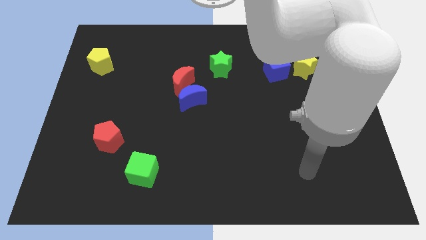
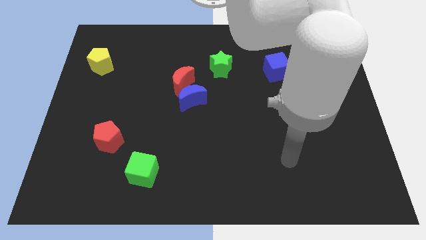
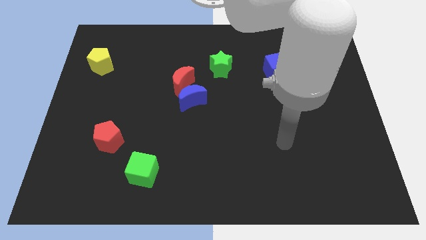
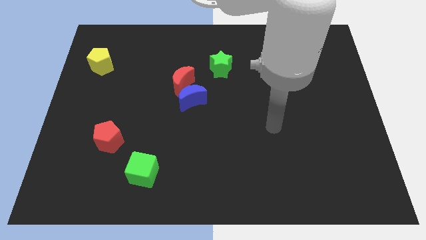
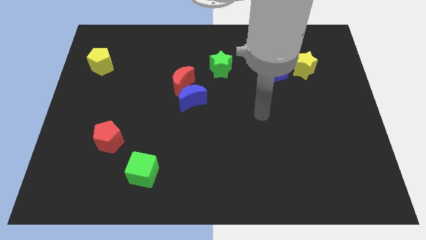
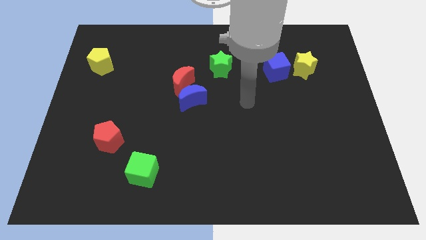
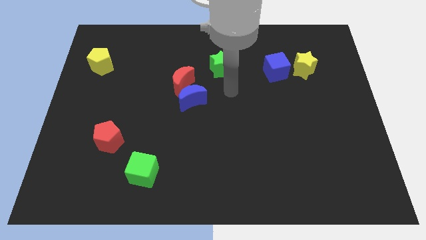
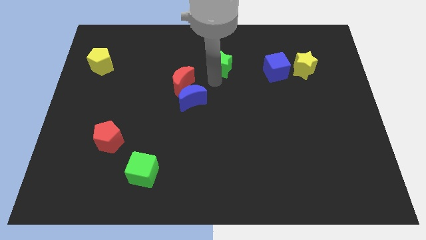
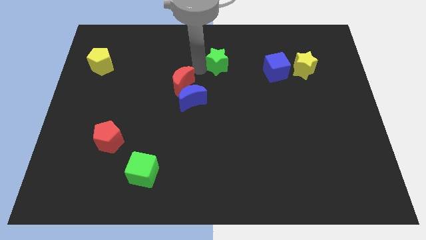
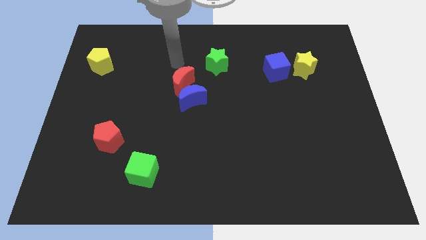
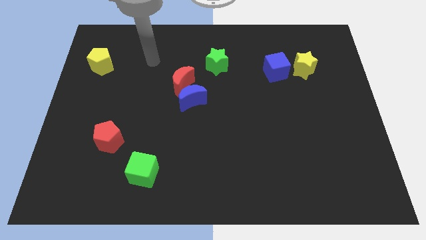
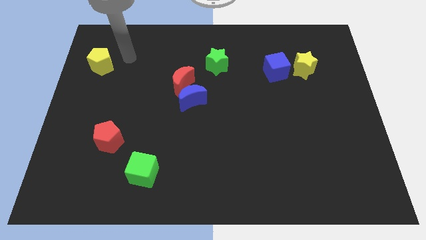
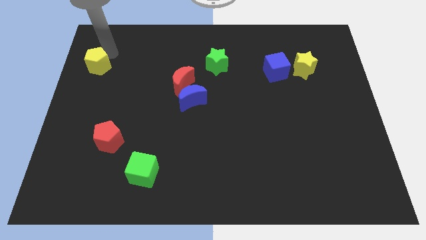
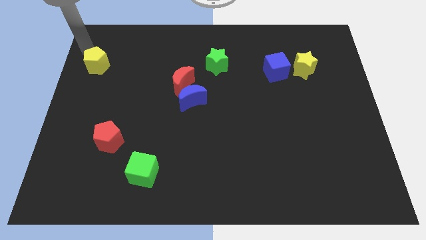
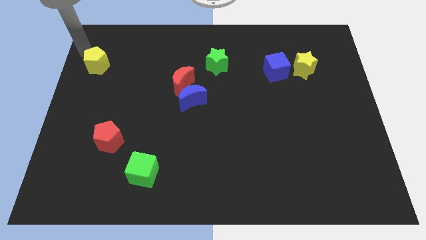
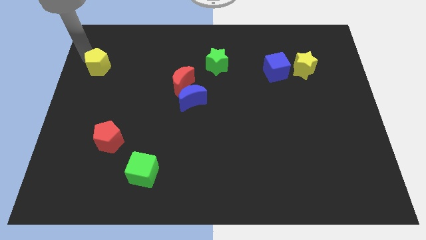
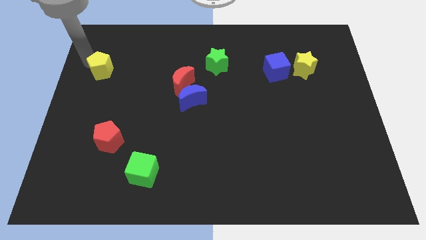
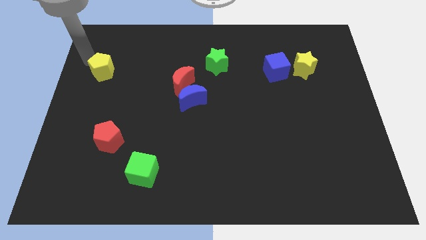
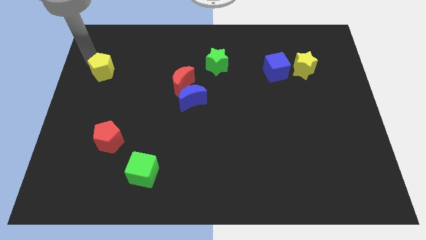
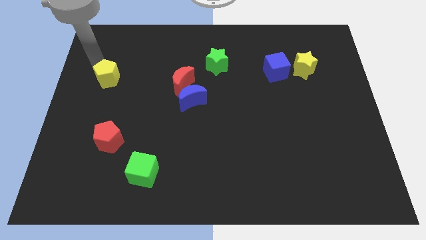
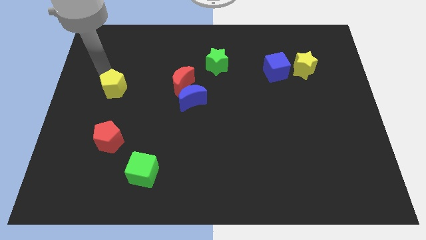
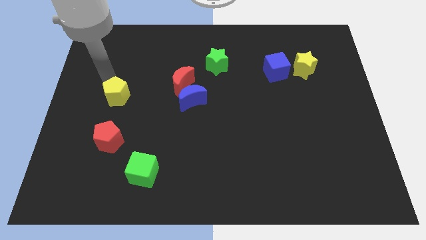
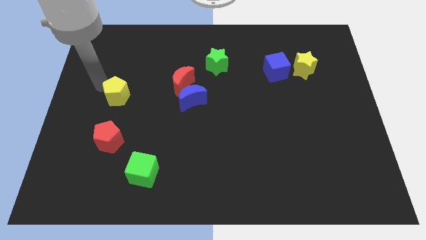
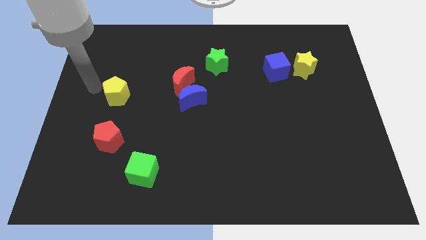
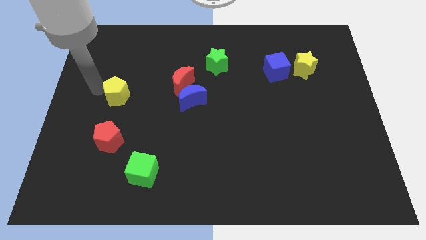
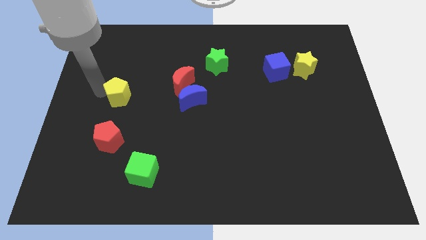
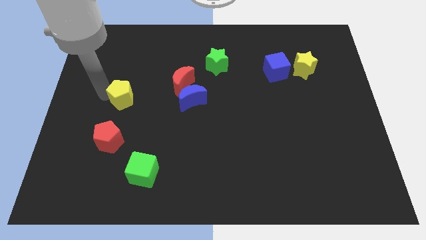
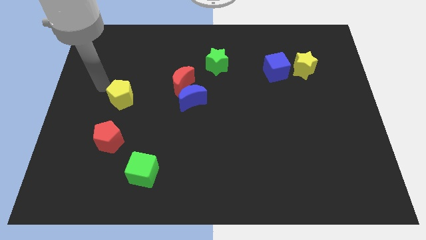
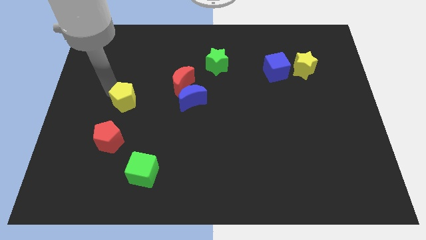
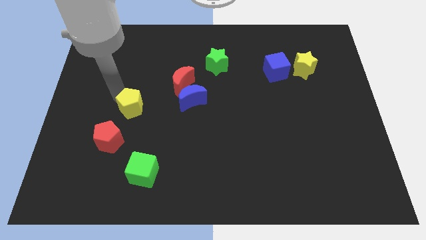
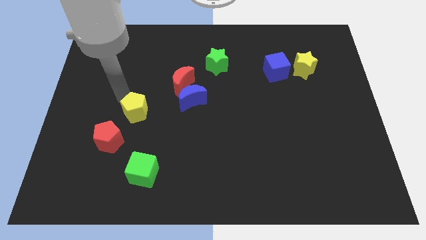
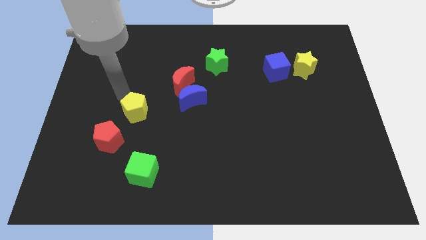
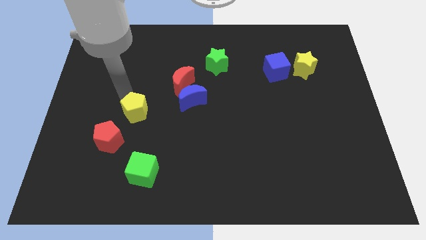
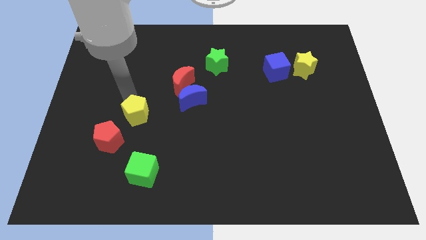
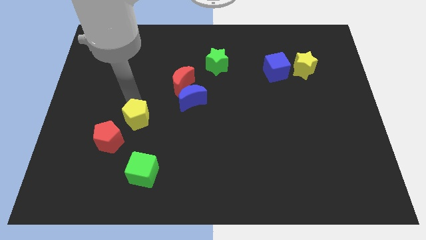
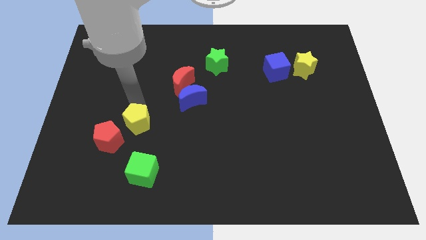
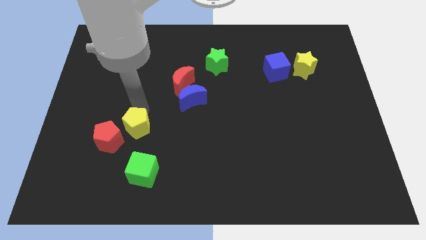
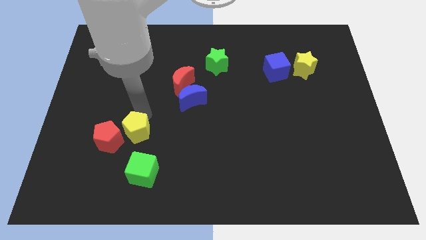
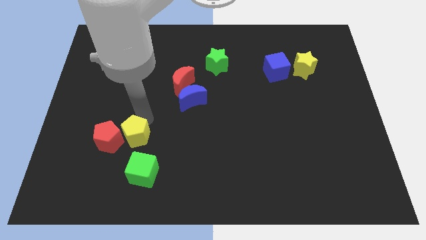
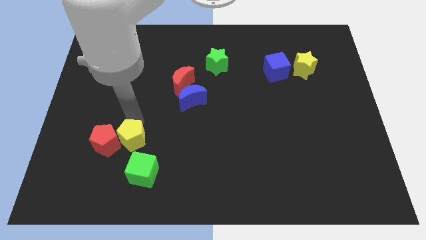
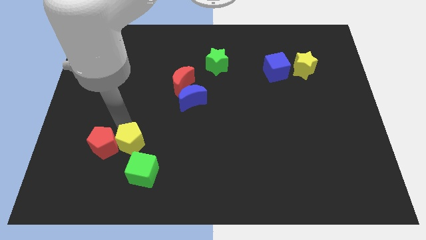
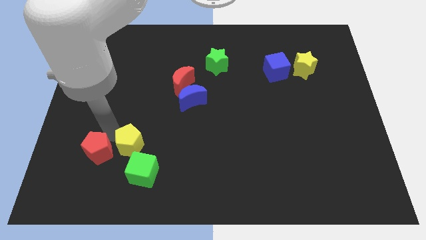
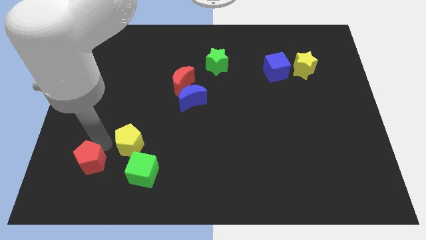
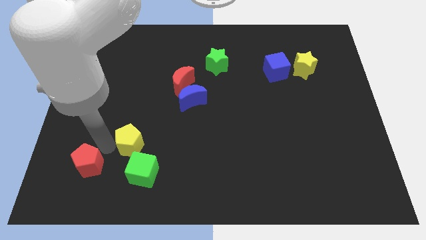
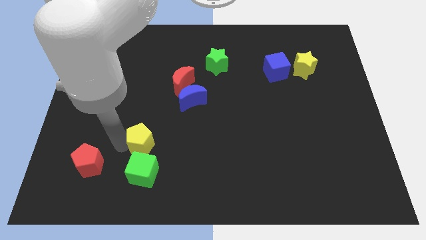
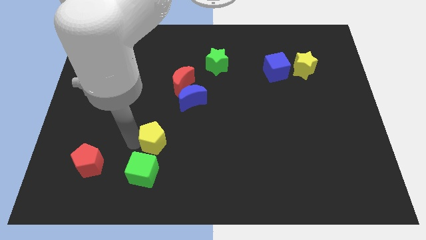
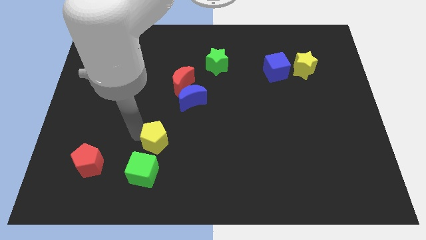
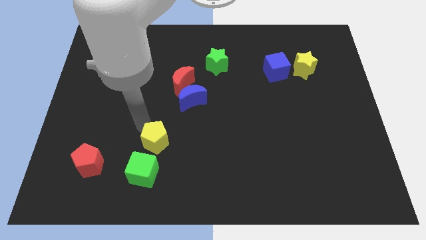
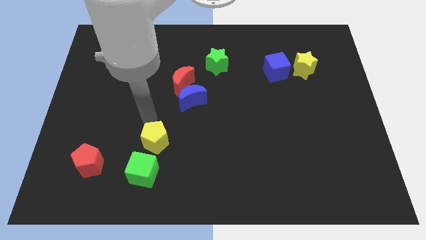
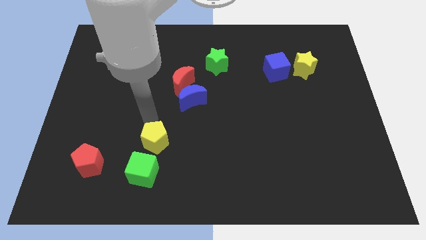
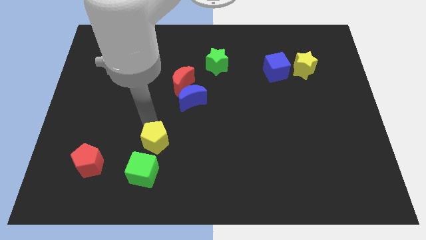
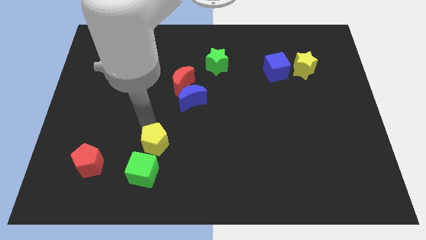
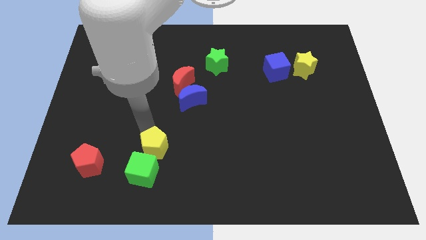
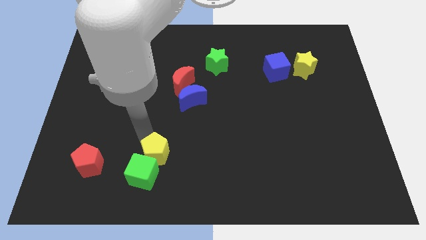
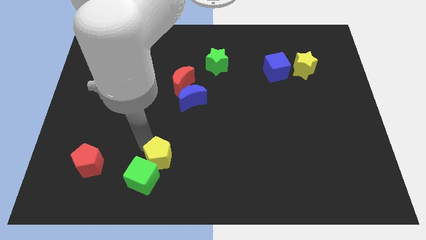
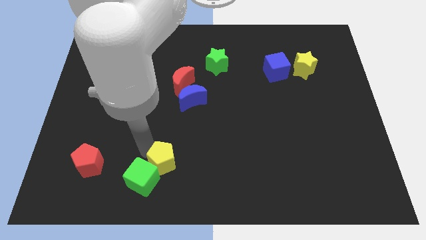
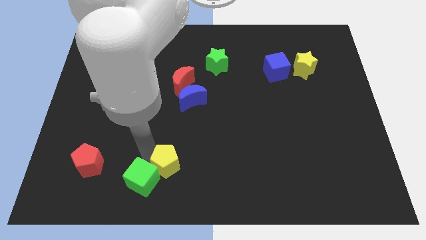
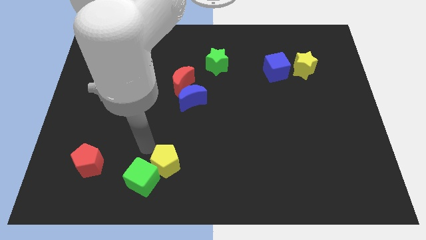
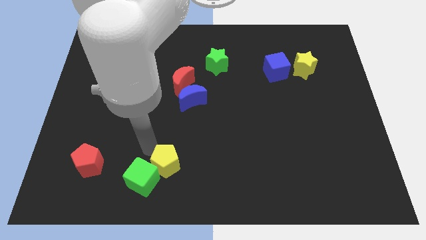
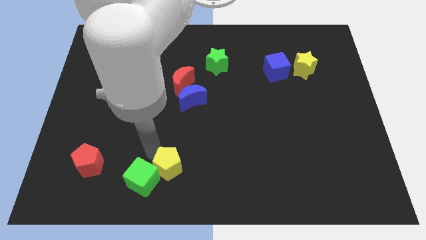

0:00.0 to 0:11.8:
push the yellow pentagon to the bottom
